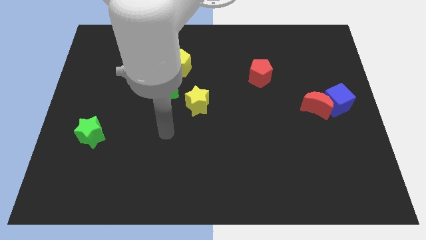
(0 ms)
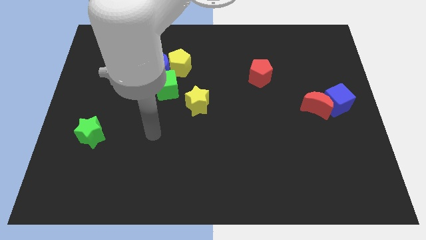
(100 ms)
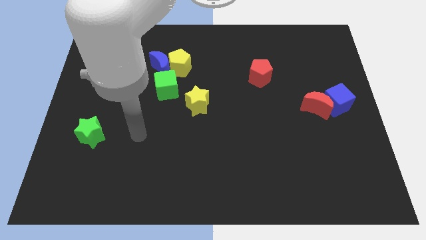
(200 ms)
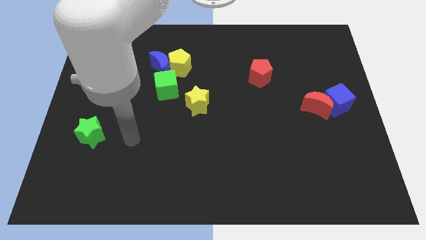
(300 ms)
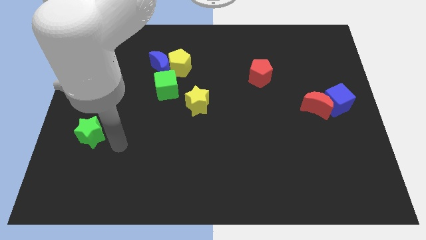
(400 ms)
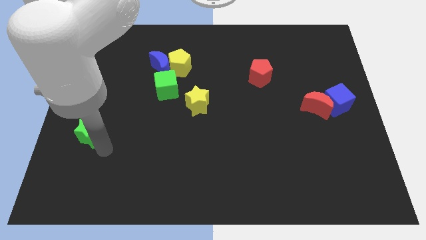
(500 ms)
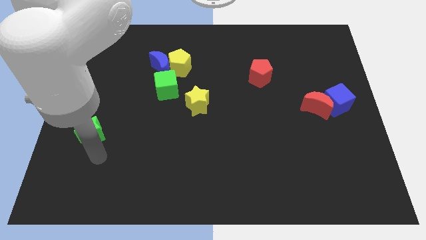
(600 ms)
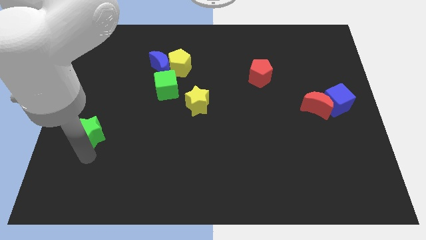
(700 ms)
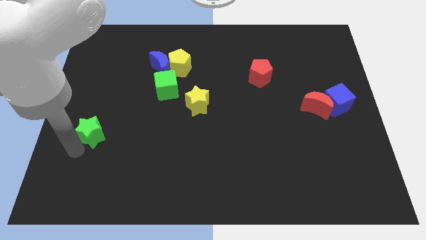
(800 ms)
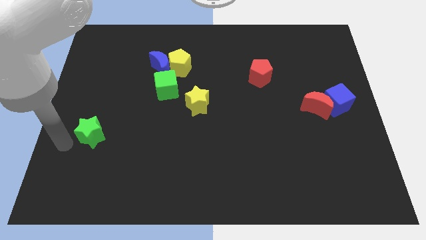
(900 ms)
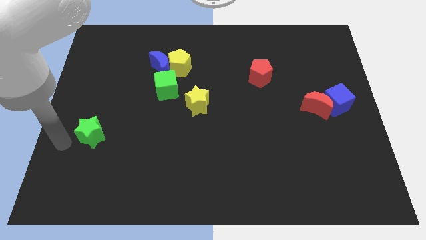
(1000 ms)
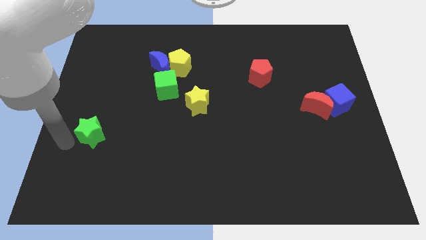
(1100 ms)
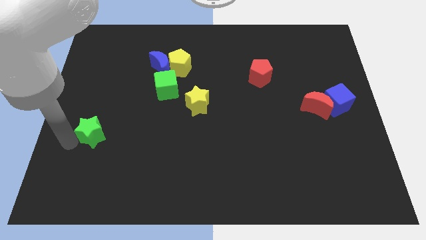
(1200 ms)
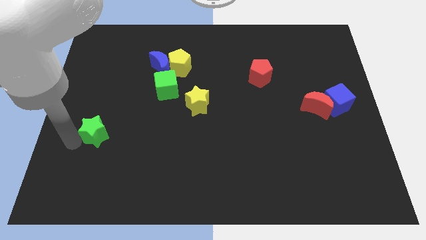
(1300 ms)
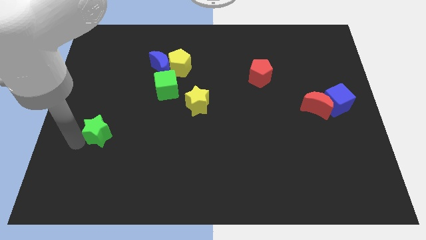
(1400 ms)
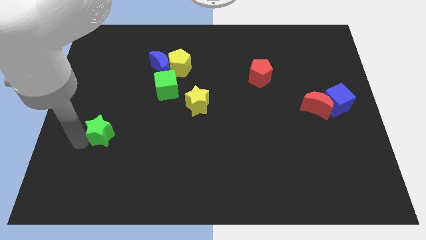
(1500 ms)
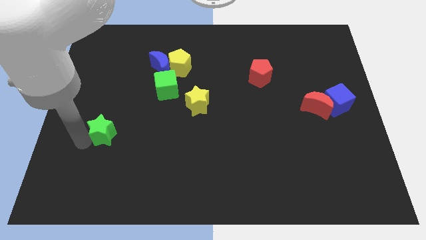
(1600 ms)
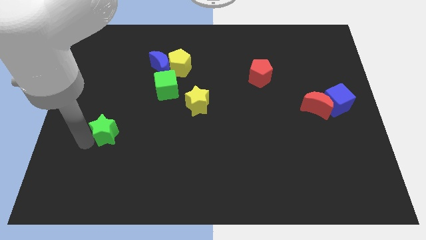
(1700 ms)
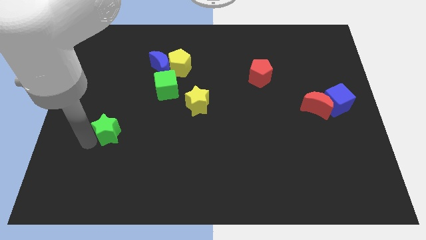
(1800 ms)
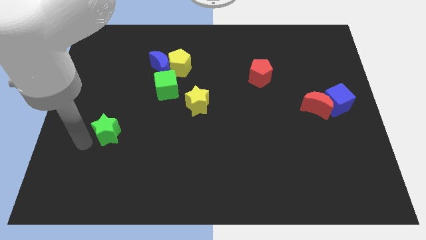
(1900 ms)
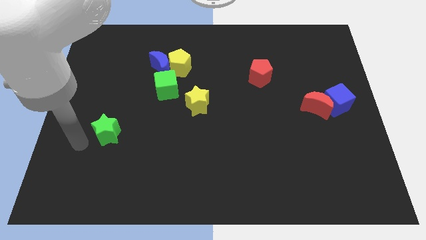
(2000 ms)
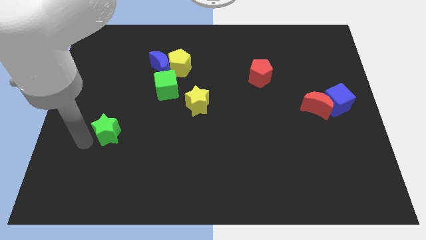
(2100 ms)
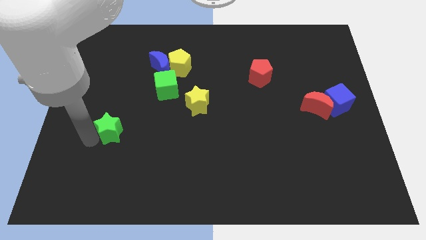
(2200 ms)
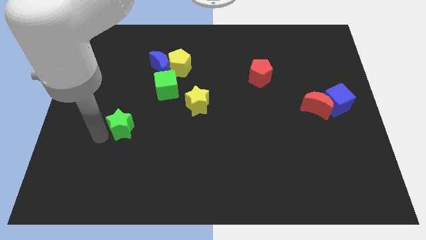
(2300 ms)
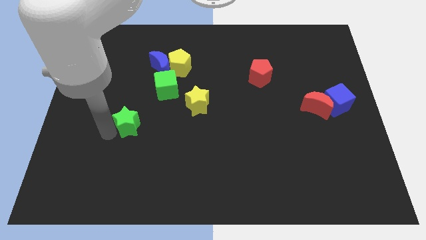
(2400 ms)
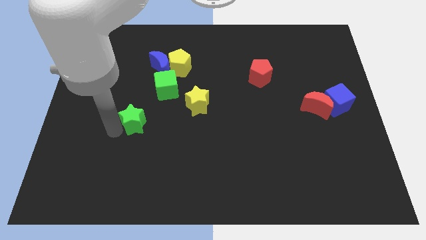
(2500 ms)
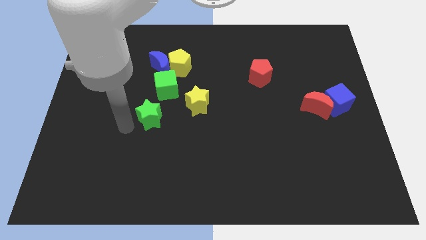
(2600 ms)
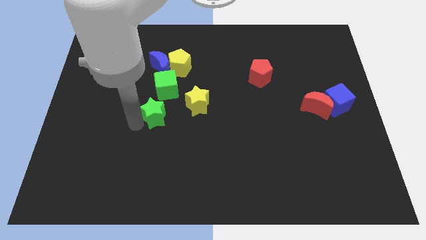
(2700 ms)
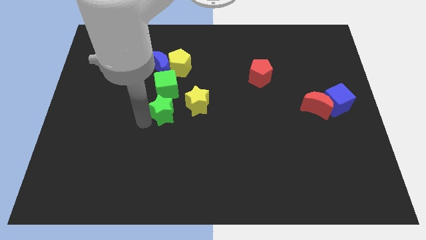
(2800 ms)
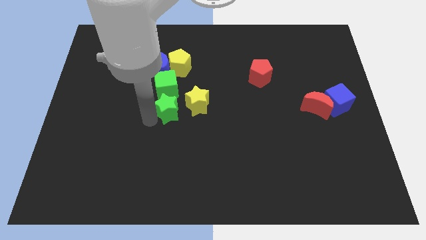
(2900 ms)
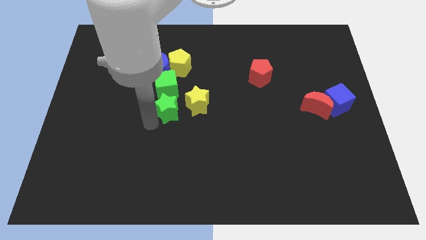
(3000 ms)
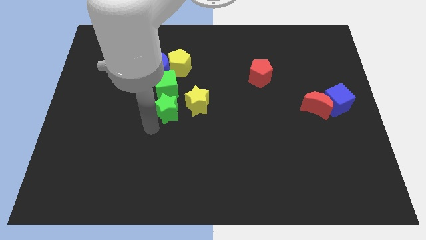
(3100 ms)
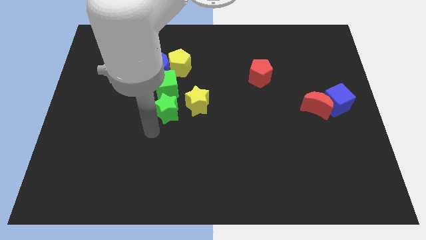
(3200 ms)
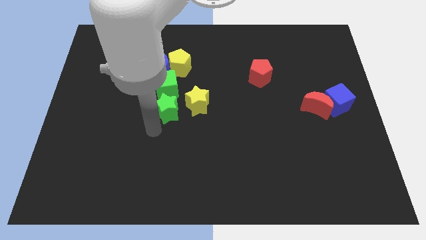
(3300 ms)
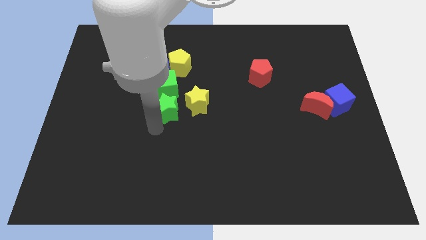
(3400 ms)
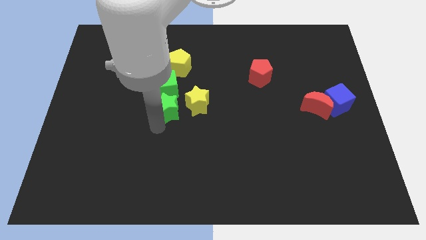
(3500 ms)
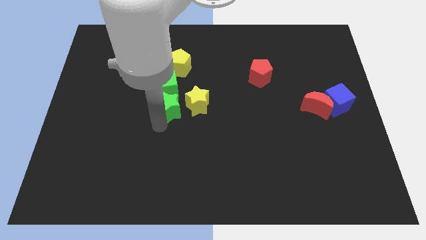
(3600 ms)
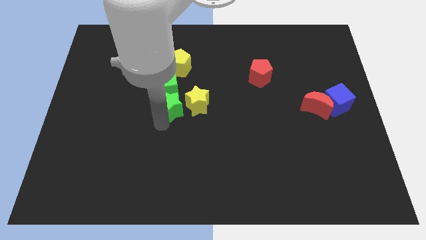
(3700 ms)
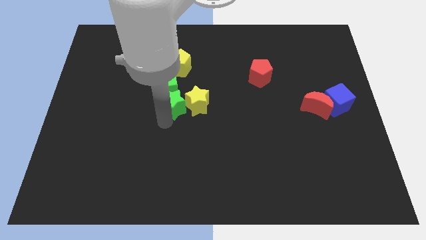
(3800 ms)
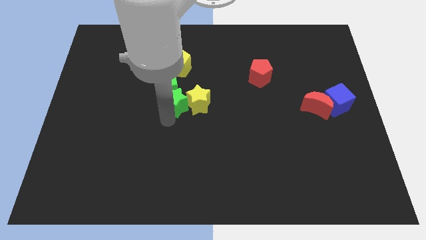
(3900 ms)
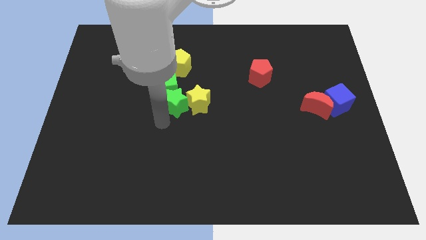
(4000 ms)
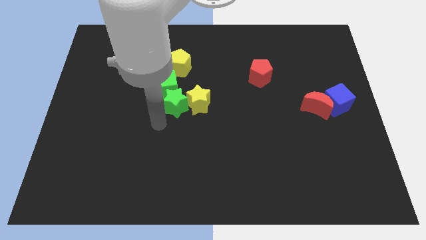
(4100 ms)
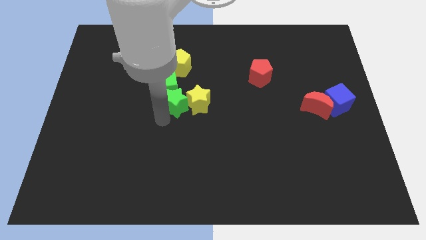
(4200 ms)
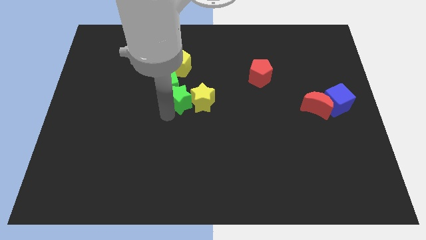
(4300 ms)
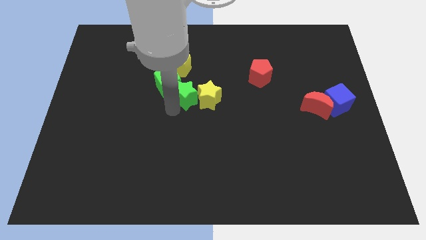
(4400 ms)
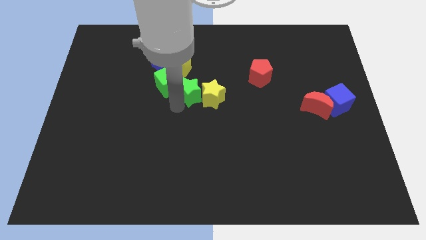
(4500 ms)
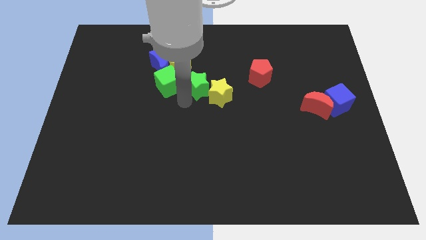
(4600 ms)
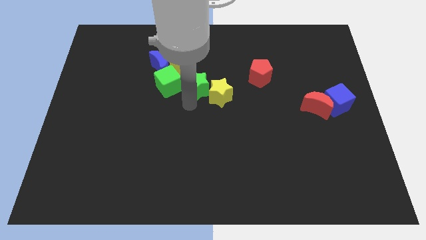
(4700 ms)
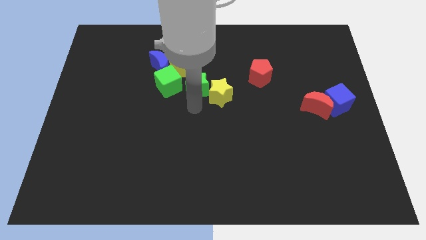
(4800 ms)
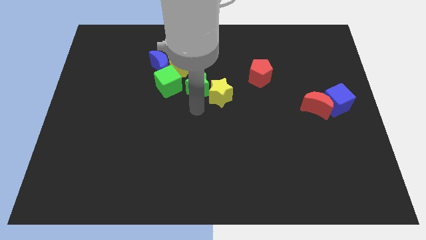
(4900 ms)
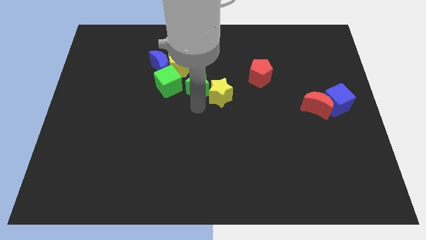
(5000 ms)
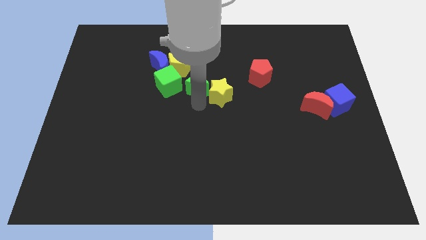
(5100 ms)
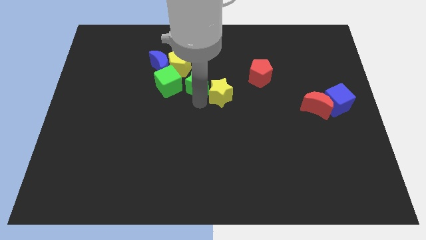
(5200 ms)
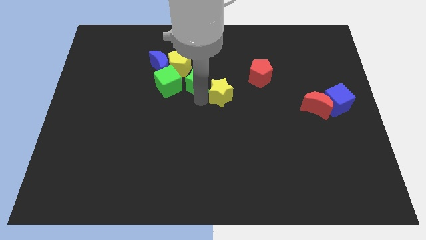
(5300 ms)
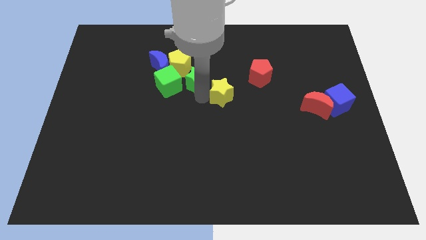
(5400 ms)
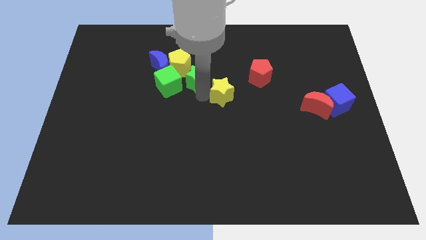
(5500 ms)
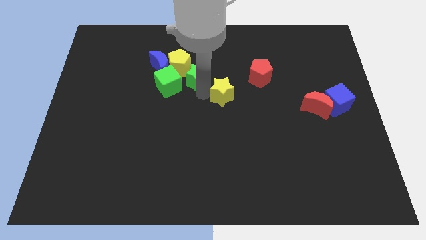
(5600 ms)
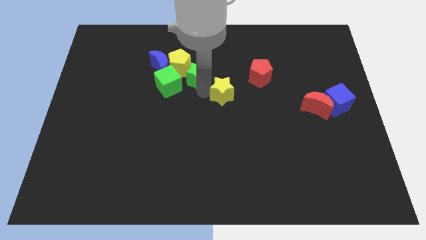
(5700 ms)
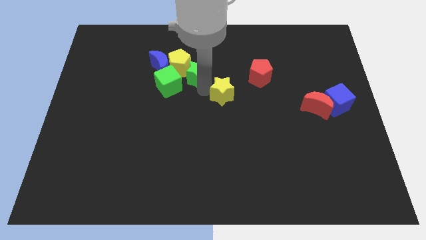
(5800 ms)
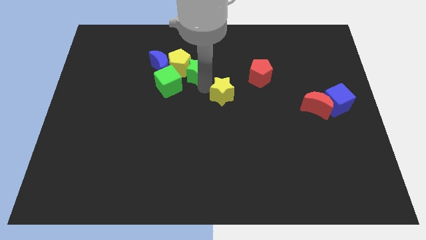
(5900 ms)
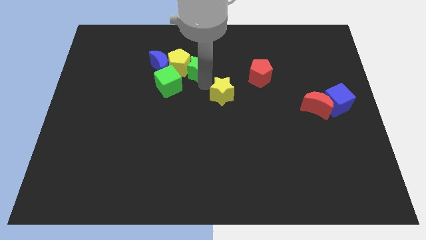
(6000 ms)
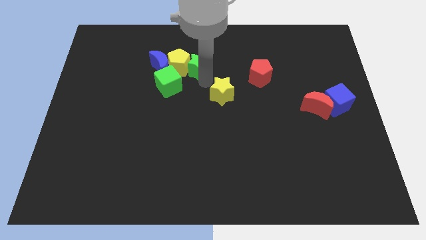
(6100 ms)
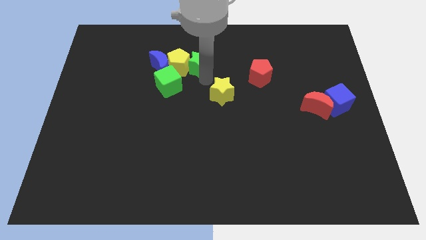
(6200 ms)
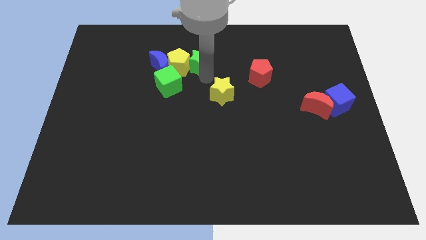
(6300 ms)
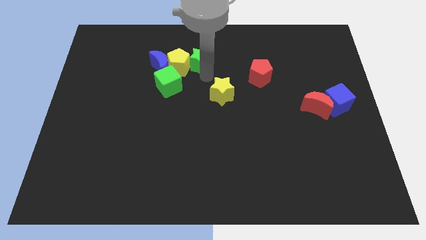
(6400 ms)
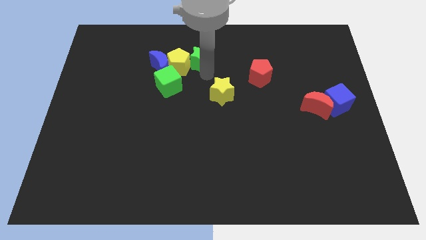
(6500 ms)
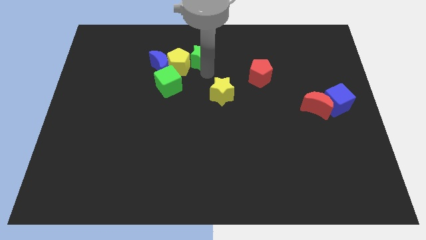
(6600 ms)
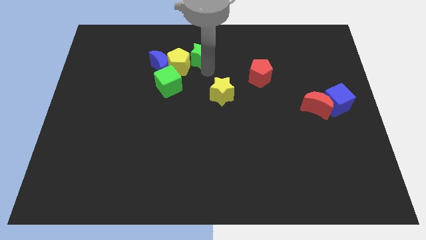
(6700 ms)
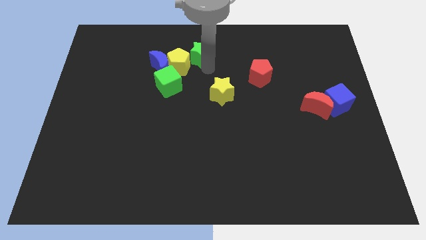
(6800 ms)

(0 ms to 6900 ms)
slide the green star to the top side
